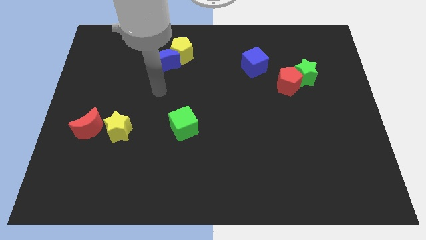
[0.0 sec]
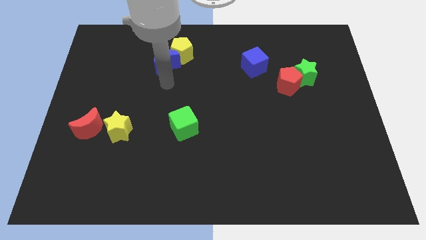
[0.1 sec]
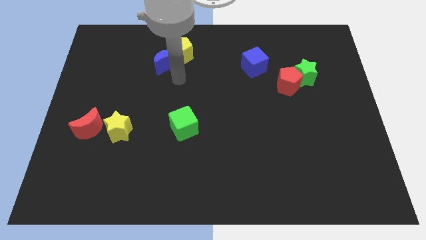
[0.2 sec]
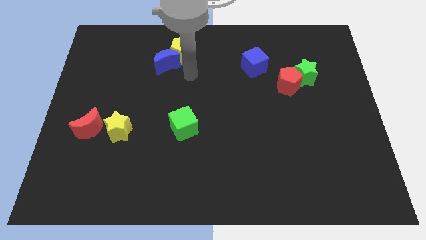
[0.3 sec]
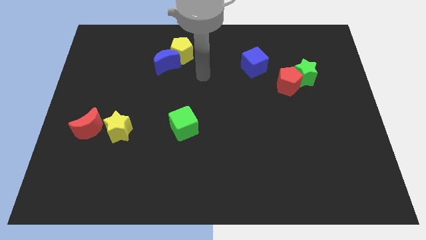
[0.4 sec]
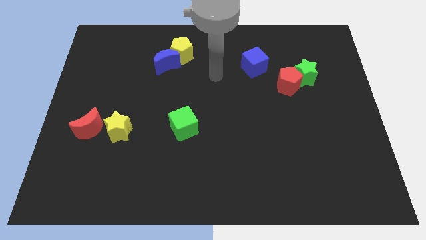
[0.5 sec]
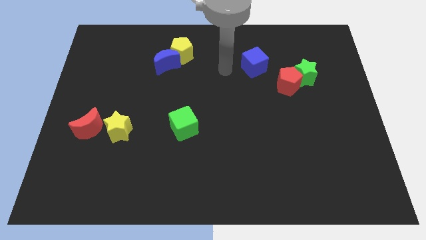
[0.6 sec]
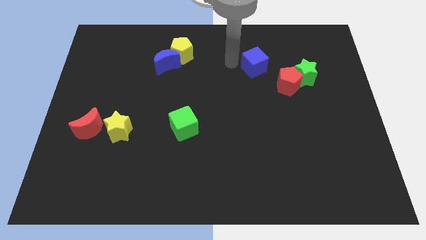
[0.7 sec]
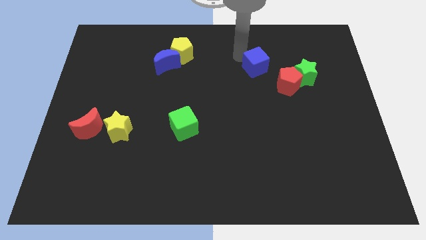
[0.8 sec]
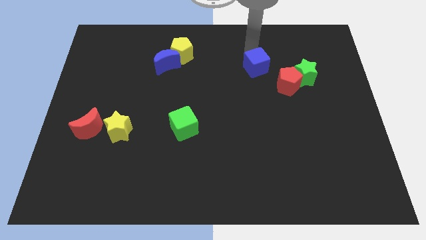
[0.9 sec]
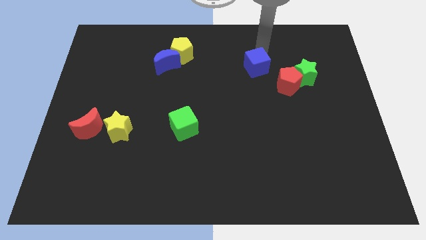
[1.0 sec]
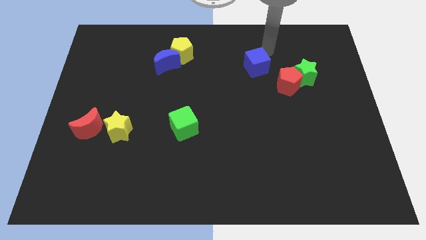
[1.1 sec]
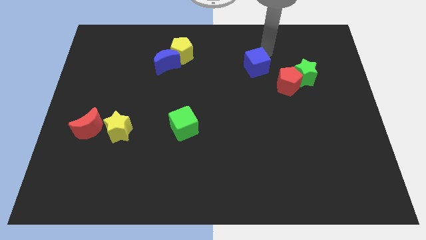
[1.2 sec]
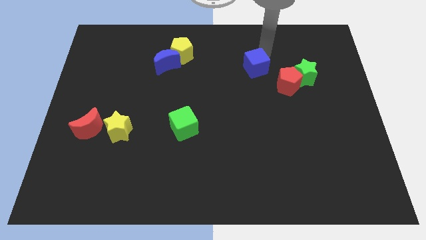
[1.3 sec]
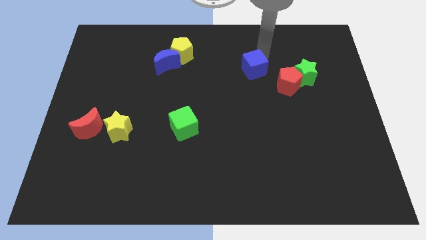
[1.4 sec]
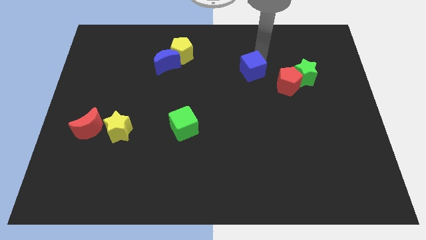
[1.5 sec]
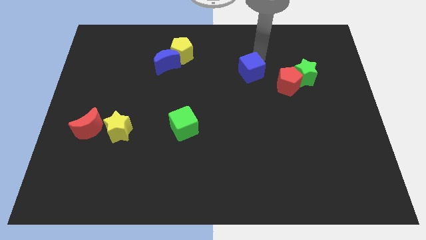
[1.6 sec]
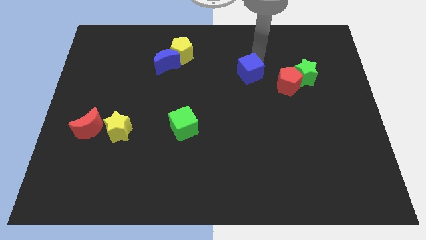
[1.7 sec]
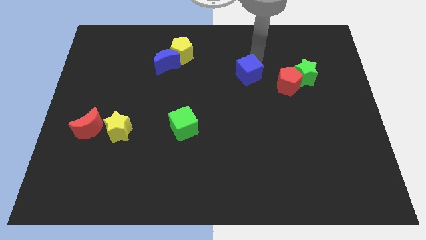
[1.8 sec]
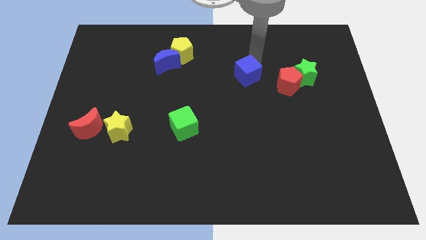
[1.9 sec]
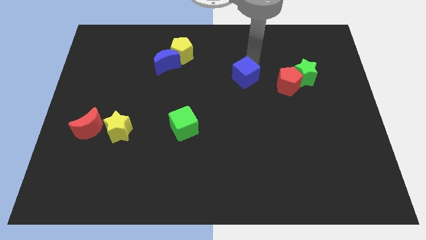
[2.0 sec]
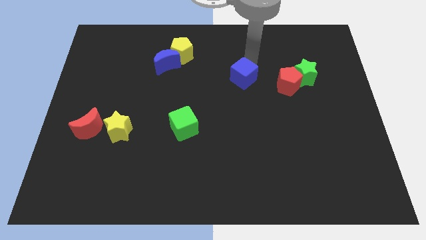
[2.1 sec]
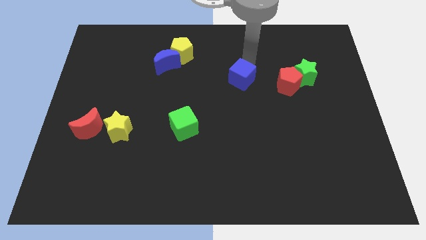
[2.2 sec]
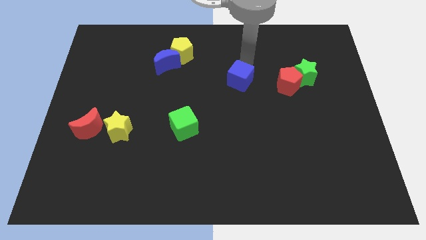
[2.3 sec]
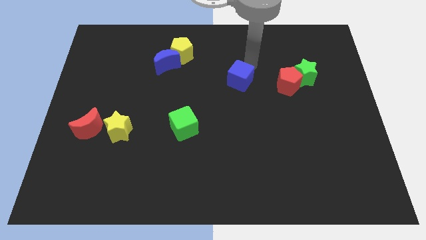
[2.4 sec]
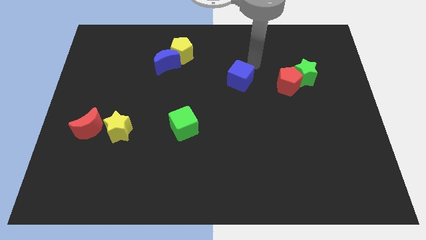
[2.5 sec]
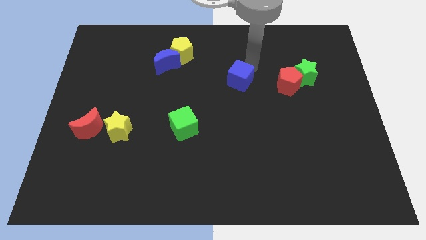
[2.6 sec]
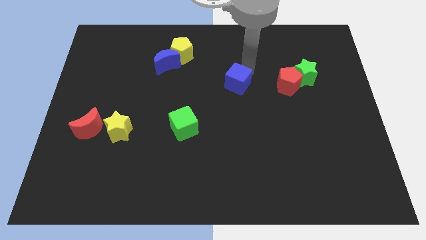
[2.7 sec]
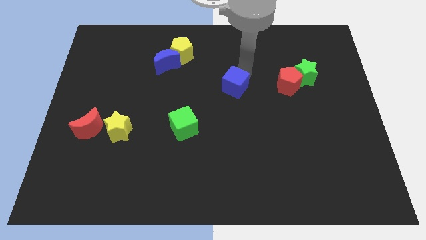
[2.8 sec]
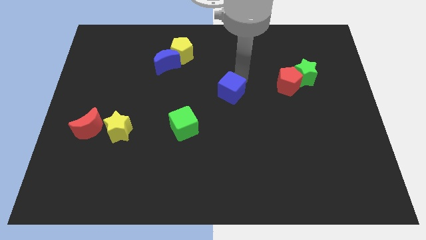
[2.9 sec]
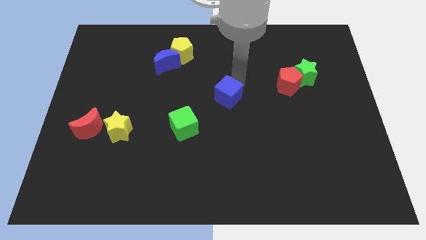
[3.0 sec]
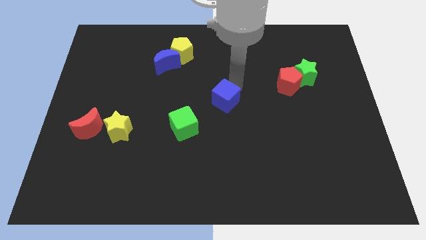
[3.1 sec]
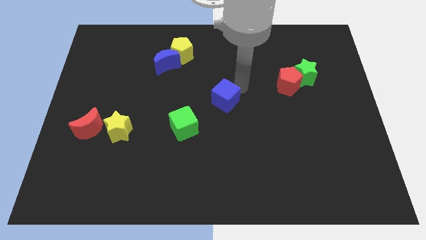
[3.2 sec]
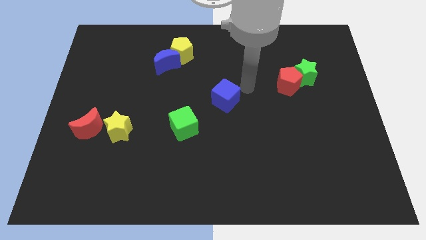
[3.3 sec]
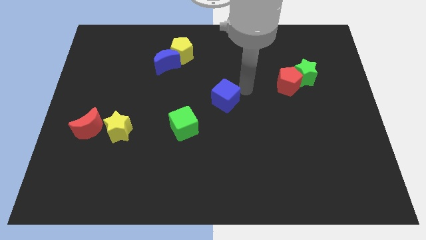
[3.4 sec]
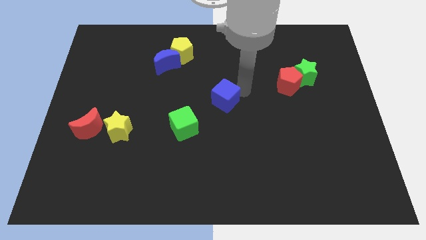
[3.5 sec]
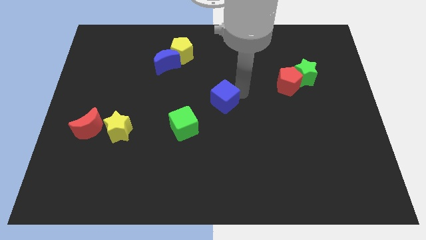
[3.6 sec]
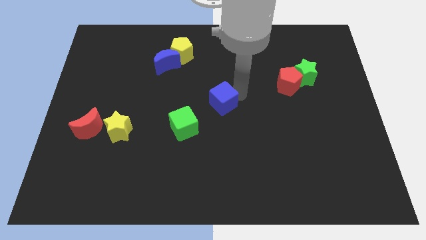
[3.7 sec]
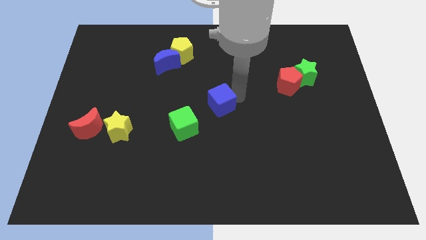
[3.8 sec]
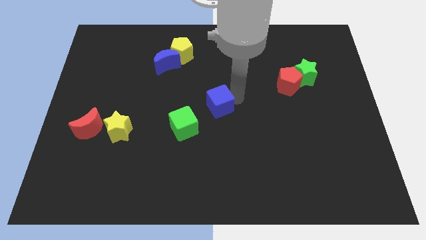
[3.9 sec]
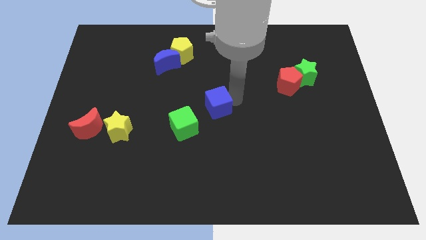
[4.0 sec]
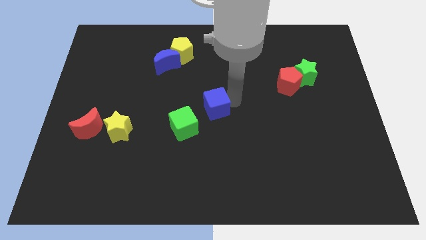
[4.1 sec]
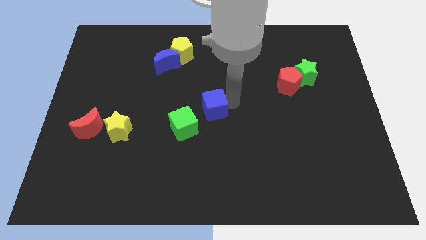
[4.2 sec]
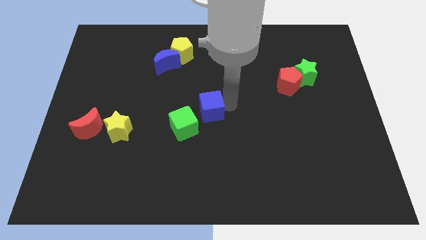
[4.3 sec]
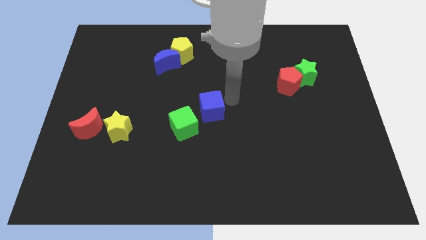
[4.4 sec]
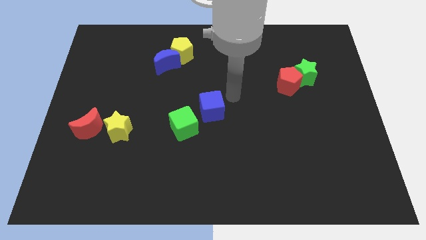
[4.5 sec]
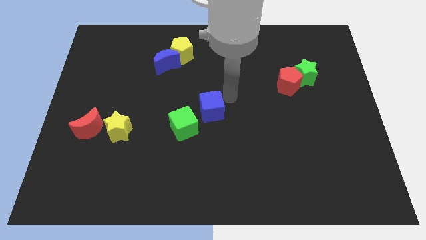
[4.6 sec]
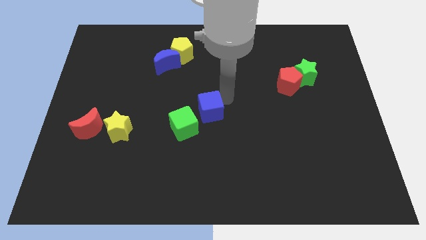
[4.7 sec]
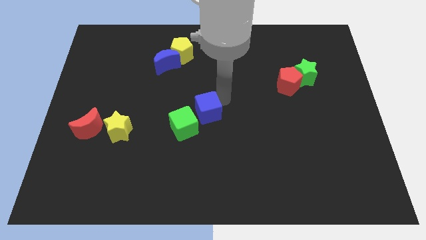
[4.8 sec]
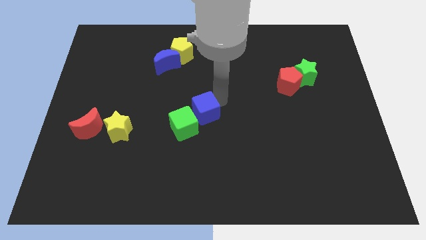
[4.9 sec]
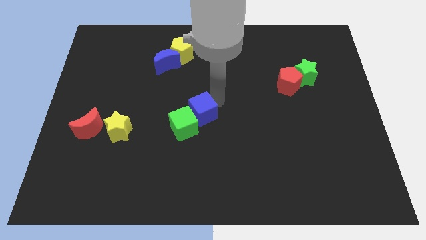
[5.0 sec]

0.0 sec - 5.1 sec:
push the blue cube to the green cube
